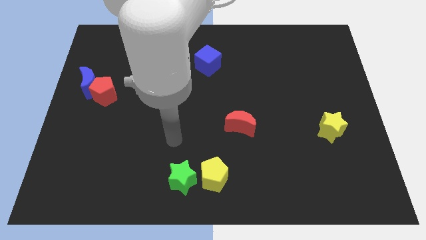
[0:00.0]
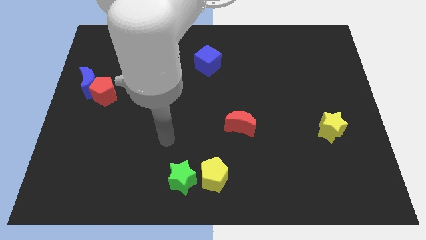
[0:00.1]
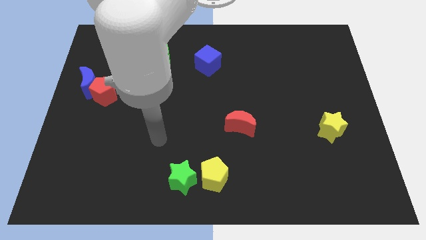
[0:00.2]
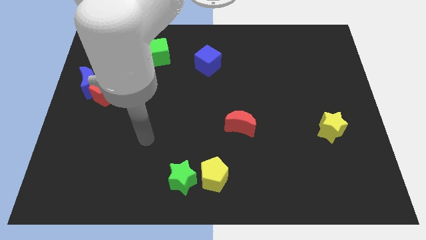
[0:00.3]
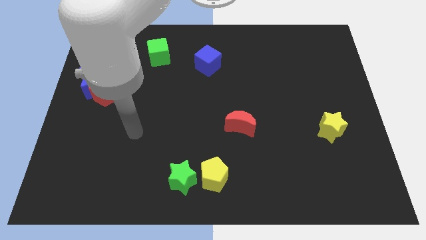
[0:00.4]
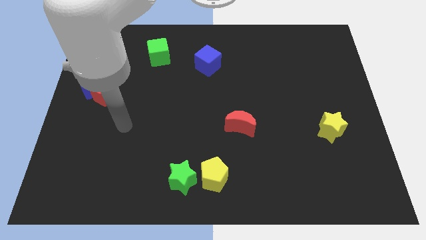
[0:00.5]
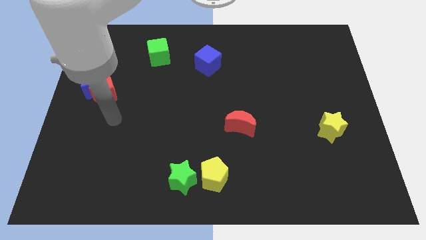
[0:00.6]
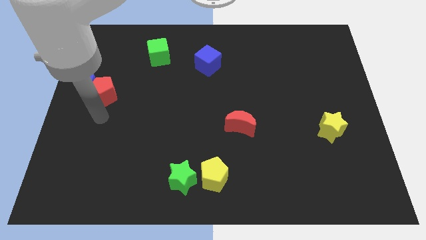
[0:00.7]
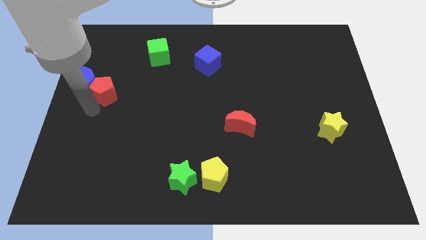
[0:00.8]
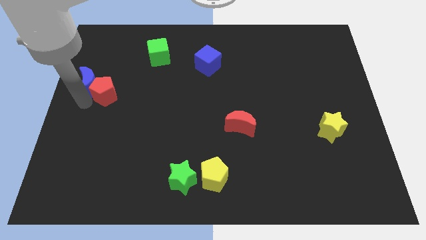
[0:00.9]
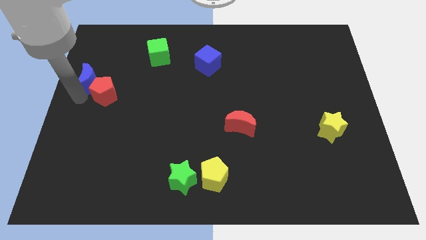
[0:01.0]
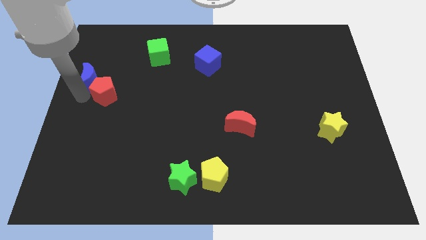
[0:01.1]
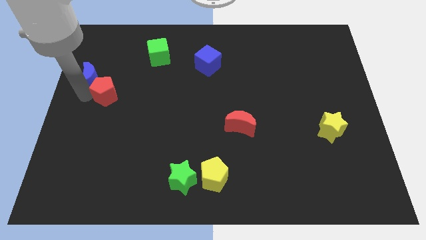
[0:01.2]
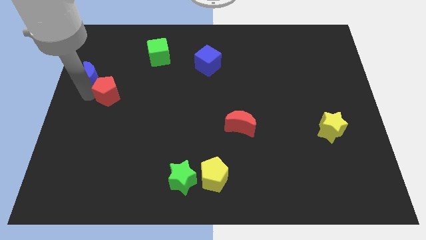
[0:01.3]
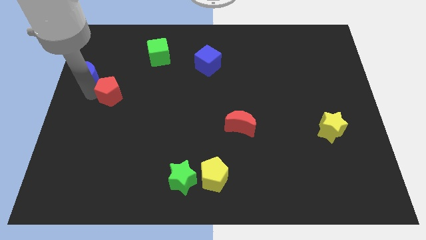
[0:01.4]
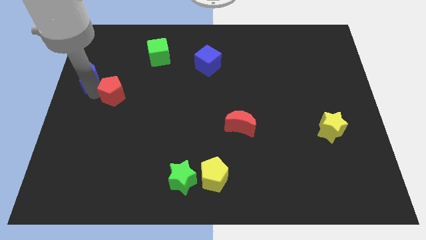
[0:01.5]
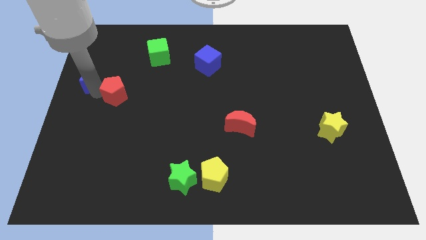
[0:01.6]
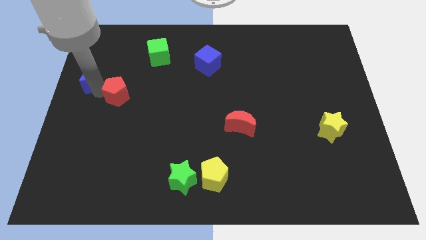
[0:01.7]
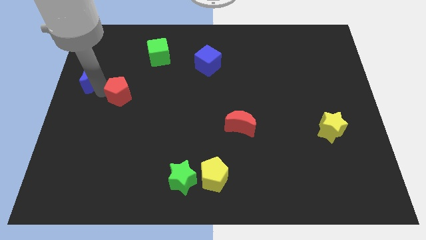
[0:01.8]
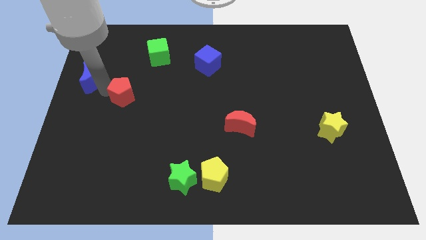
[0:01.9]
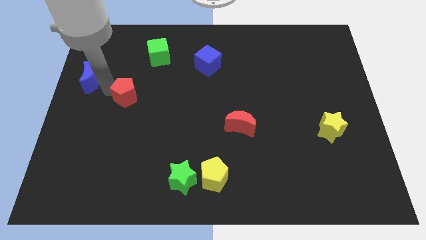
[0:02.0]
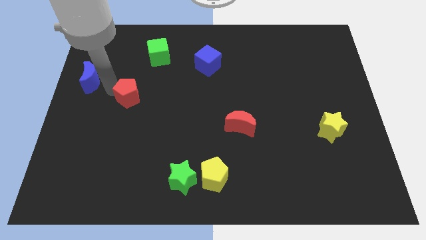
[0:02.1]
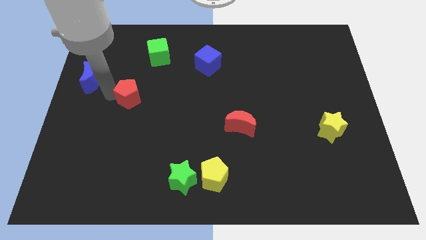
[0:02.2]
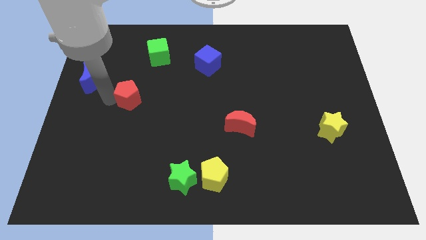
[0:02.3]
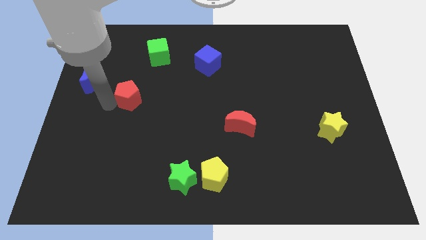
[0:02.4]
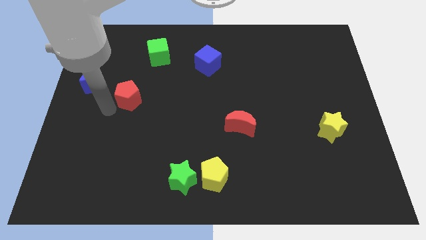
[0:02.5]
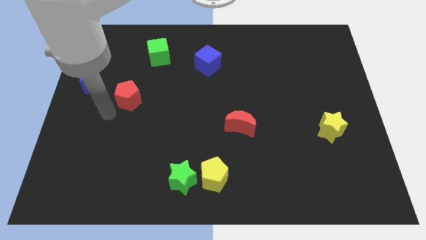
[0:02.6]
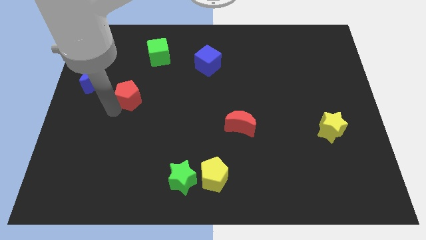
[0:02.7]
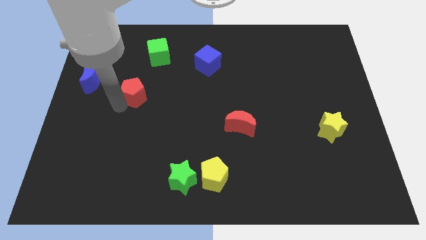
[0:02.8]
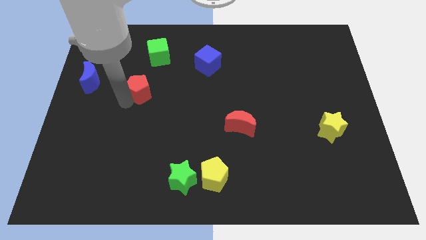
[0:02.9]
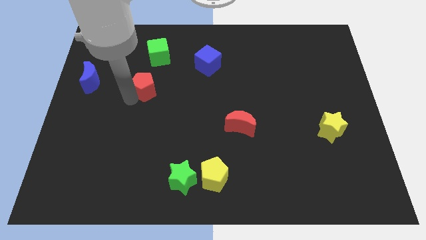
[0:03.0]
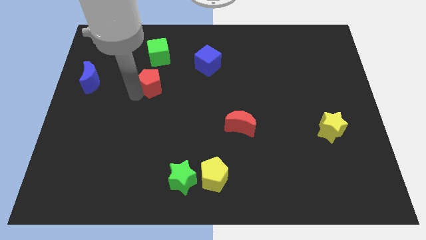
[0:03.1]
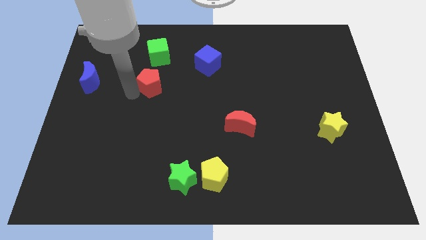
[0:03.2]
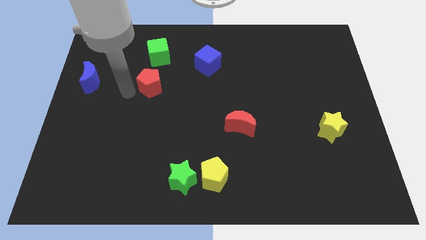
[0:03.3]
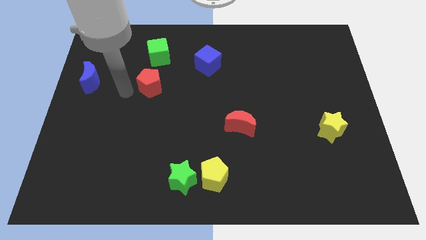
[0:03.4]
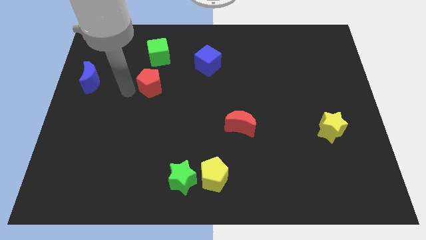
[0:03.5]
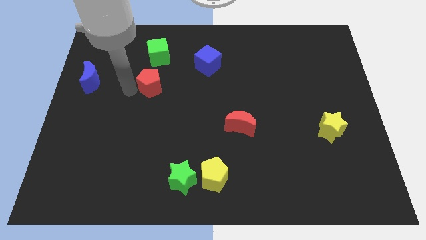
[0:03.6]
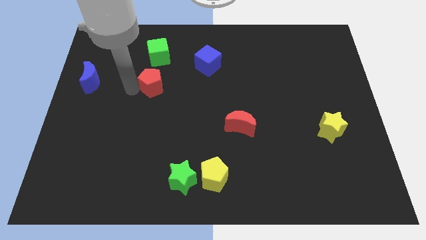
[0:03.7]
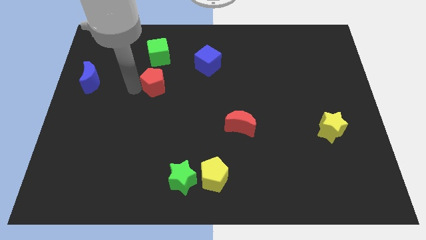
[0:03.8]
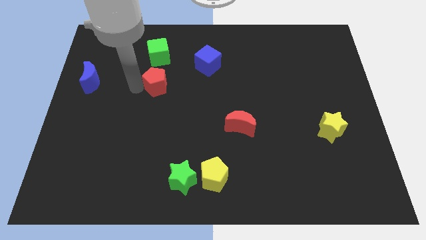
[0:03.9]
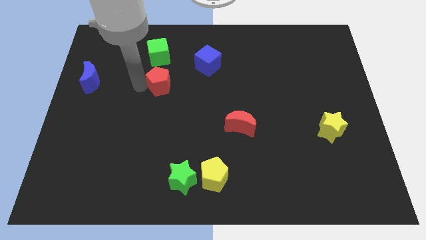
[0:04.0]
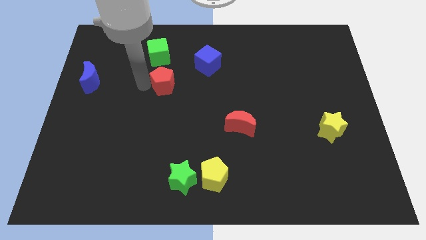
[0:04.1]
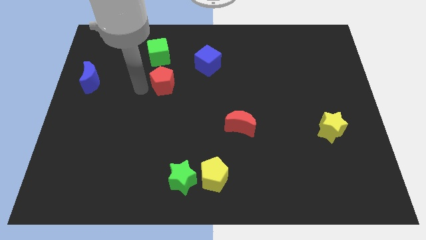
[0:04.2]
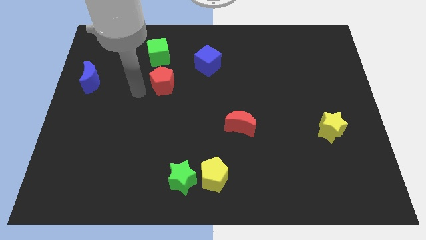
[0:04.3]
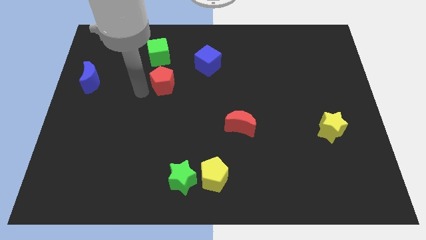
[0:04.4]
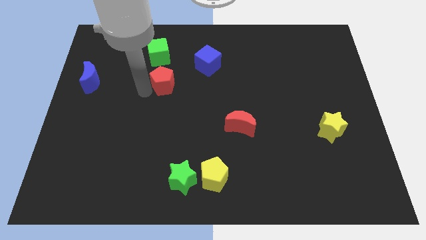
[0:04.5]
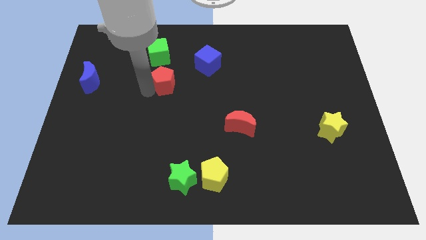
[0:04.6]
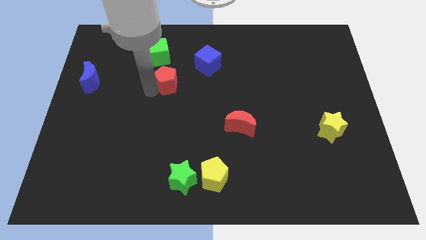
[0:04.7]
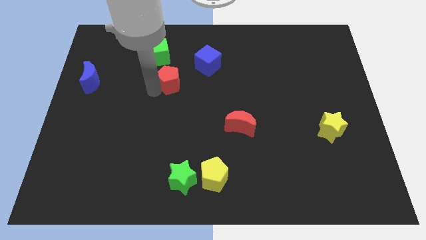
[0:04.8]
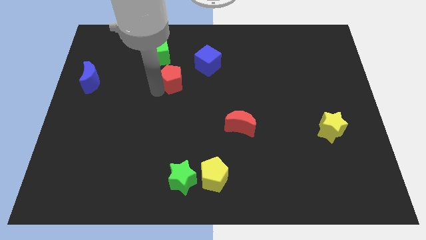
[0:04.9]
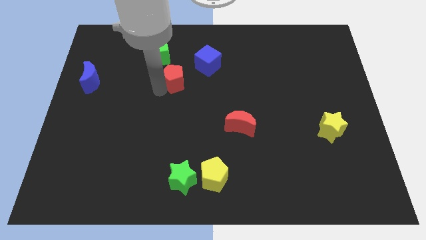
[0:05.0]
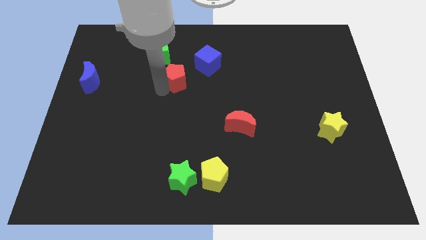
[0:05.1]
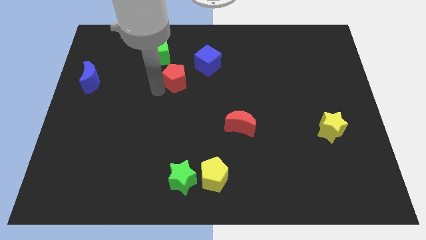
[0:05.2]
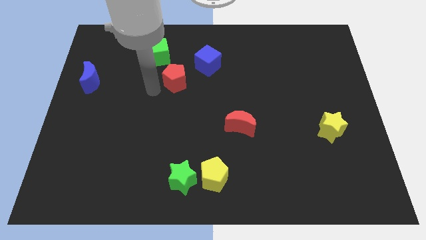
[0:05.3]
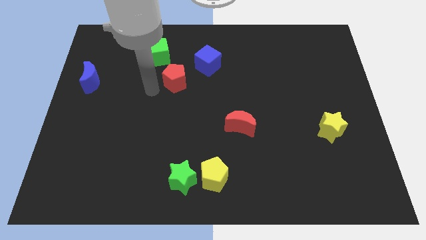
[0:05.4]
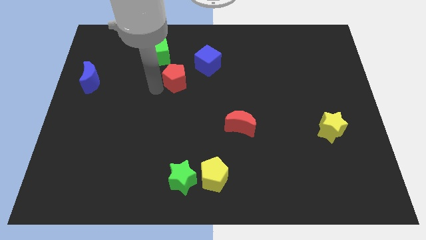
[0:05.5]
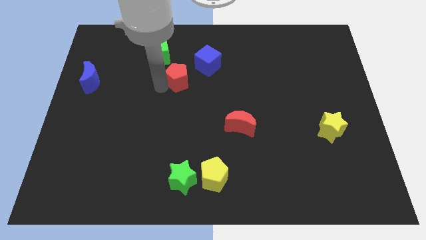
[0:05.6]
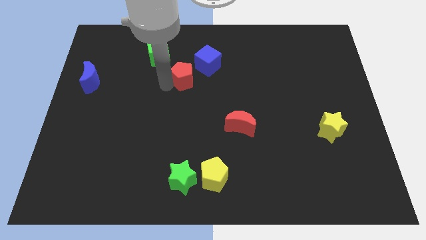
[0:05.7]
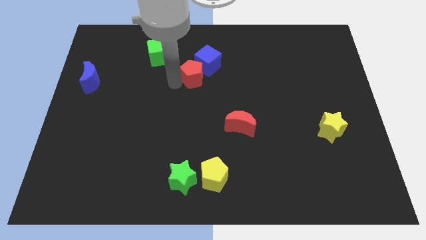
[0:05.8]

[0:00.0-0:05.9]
put the red pentagon close to the blue cube

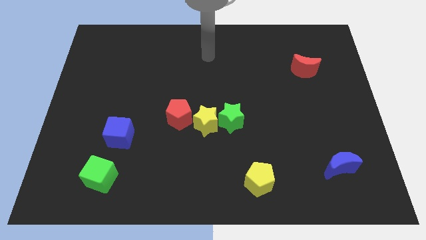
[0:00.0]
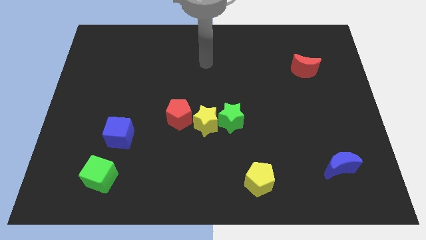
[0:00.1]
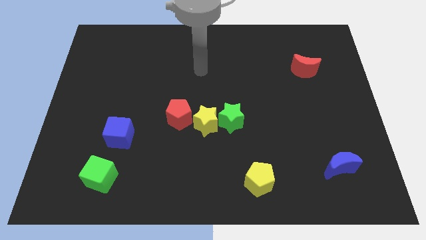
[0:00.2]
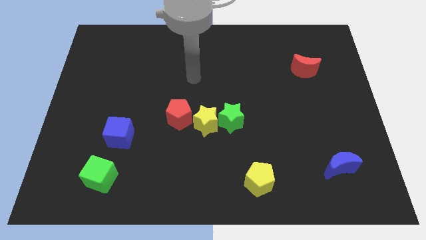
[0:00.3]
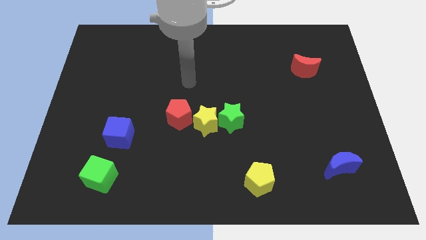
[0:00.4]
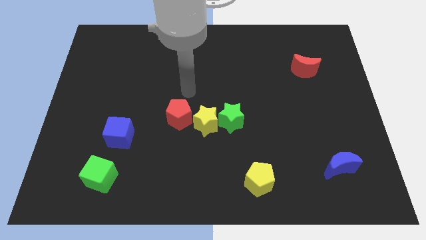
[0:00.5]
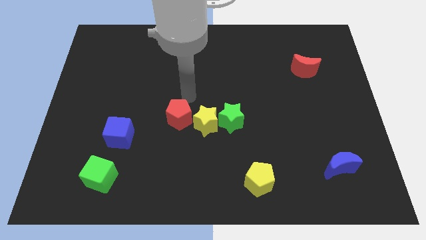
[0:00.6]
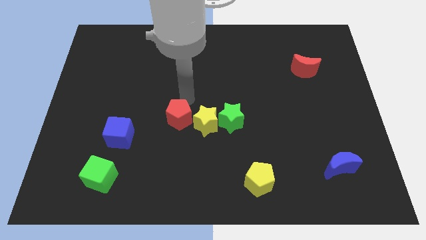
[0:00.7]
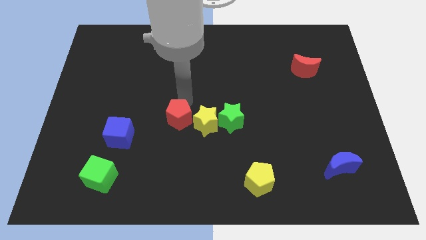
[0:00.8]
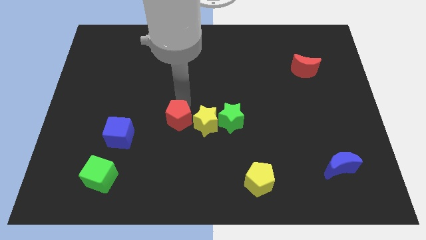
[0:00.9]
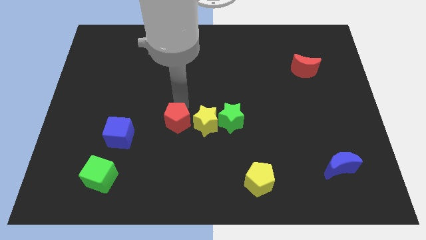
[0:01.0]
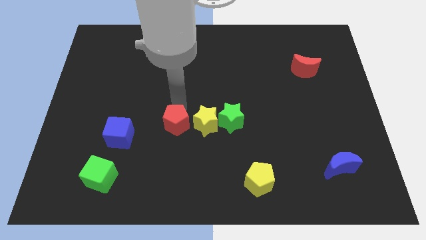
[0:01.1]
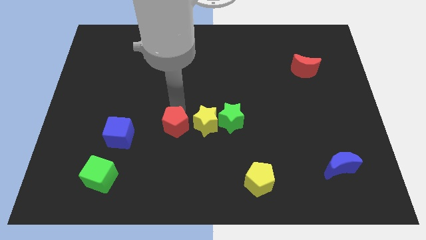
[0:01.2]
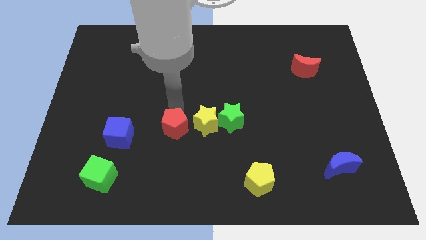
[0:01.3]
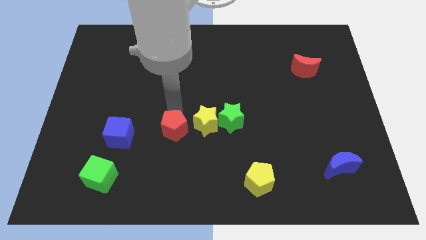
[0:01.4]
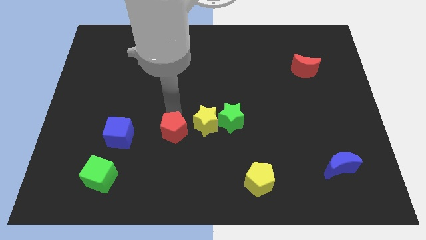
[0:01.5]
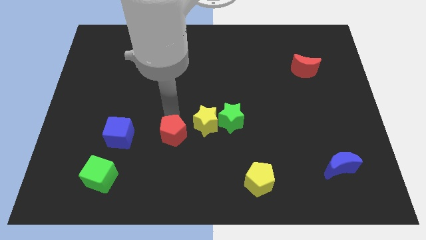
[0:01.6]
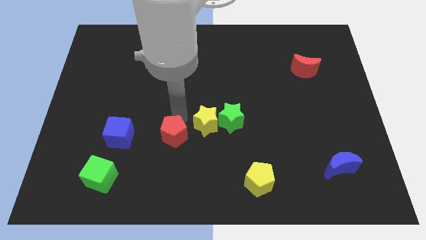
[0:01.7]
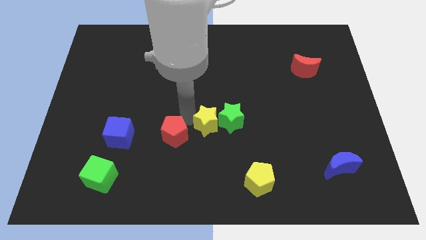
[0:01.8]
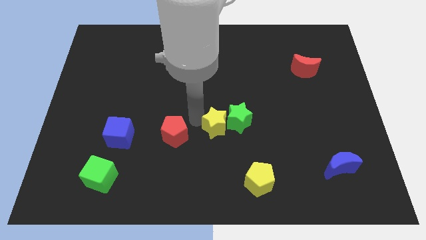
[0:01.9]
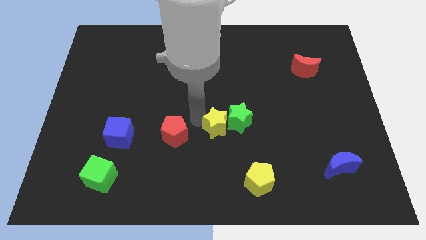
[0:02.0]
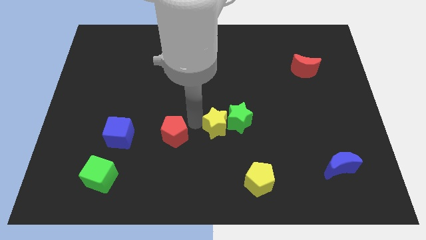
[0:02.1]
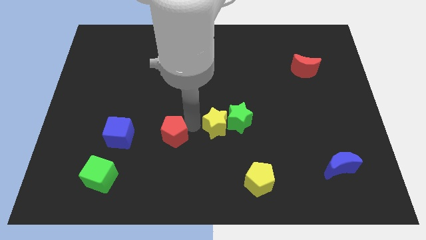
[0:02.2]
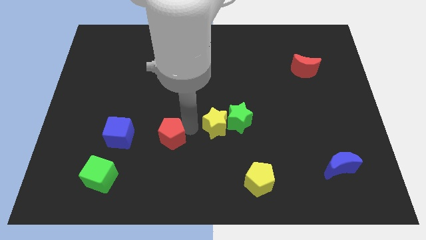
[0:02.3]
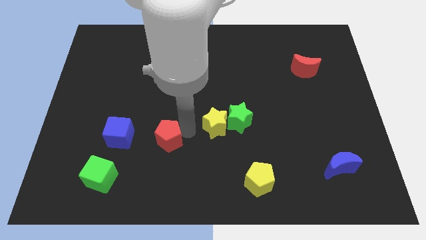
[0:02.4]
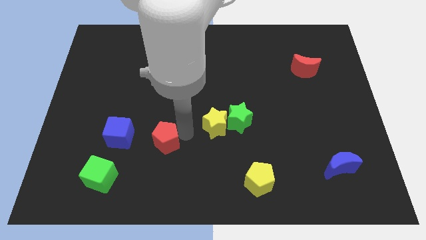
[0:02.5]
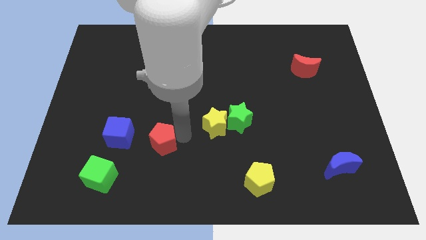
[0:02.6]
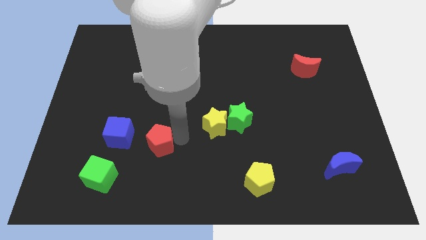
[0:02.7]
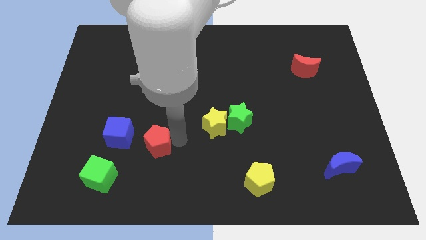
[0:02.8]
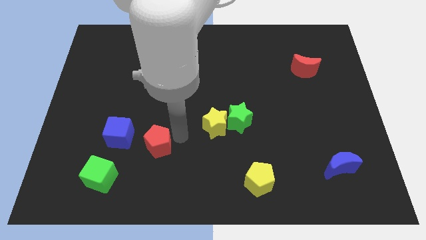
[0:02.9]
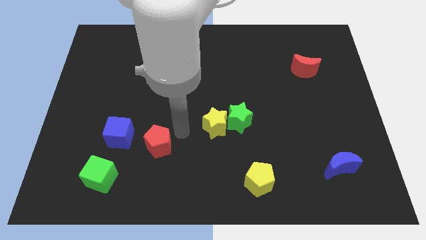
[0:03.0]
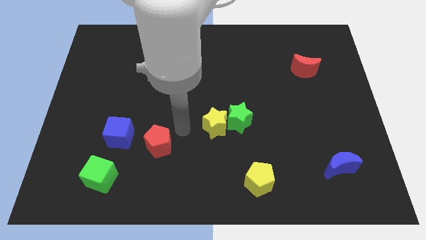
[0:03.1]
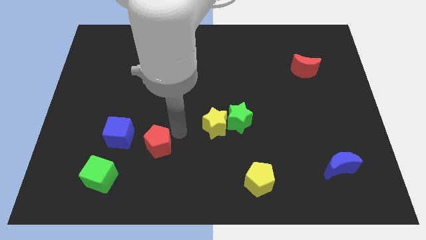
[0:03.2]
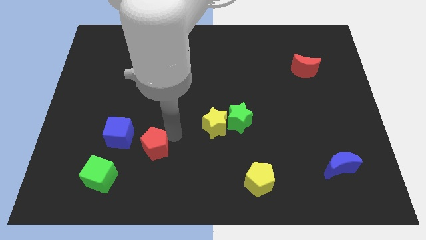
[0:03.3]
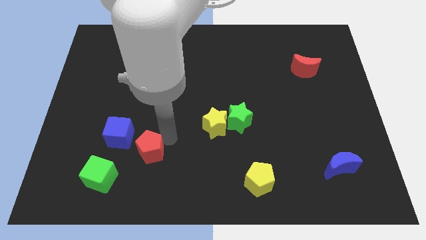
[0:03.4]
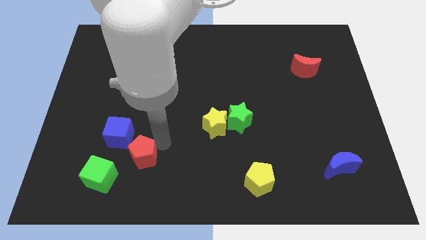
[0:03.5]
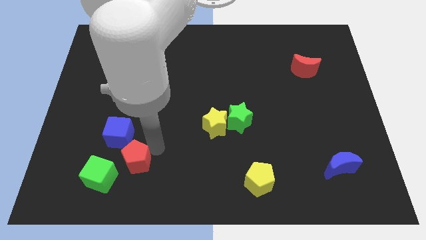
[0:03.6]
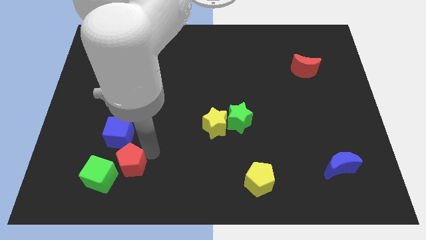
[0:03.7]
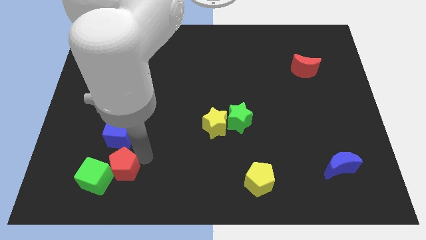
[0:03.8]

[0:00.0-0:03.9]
slide the red pentagon close to the green cube
